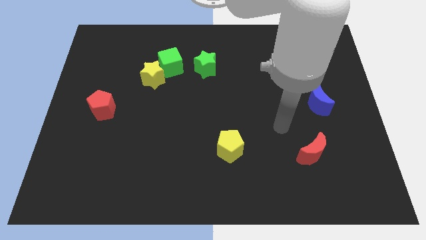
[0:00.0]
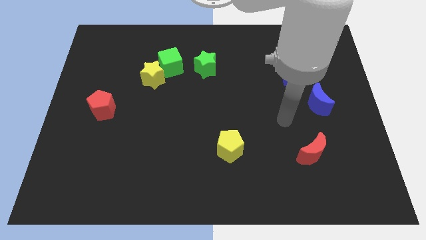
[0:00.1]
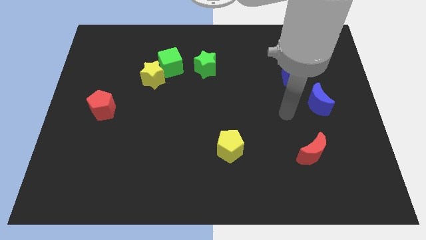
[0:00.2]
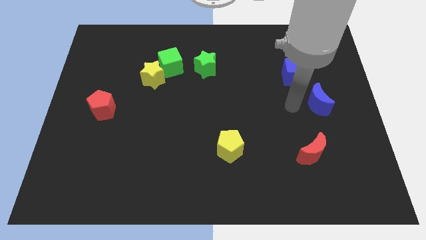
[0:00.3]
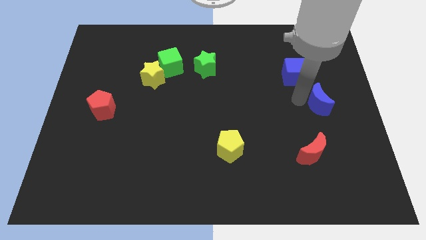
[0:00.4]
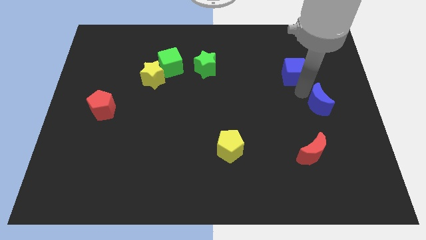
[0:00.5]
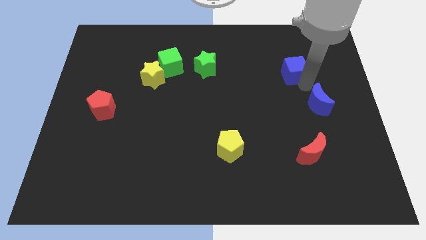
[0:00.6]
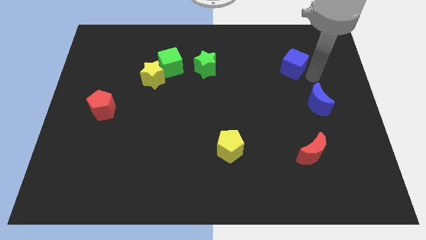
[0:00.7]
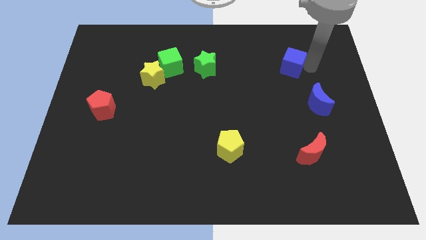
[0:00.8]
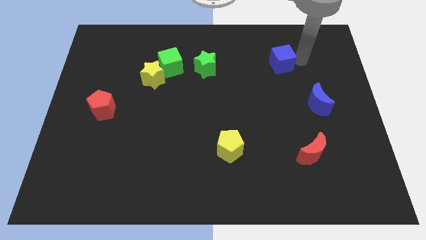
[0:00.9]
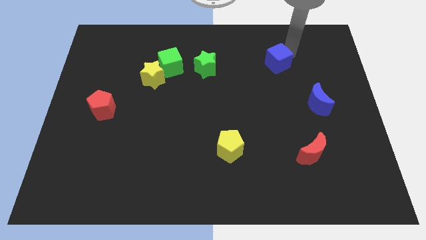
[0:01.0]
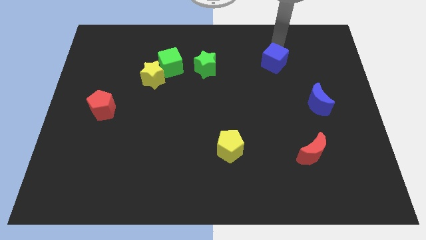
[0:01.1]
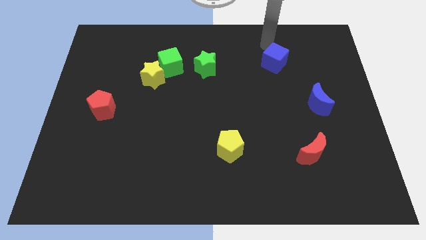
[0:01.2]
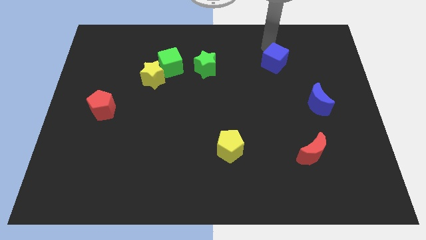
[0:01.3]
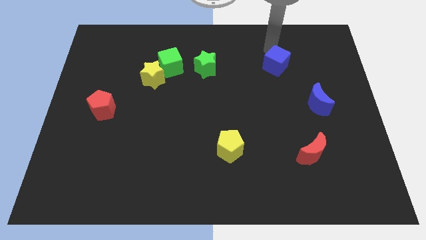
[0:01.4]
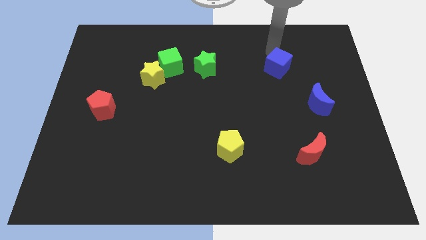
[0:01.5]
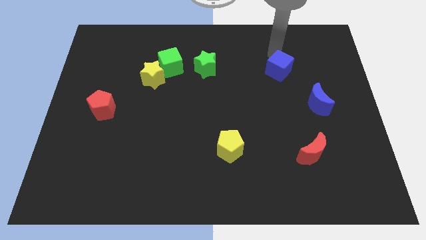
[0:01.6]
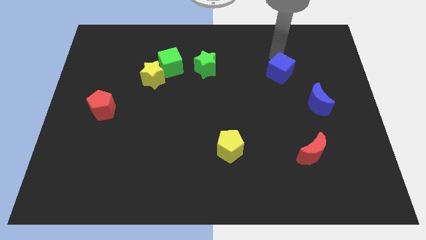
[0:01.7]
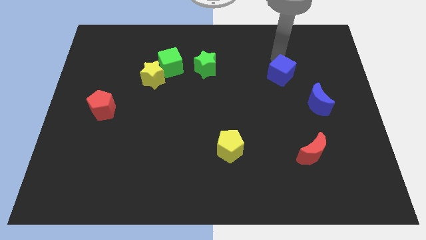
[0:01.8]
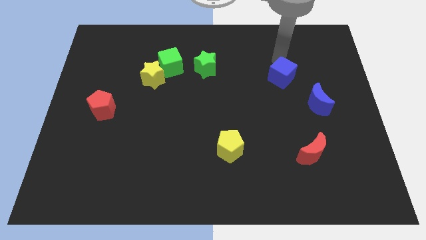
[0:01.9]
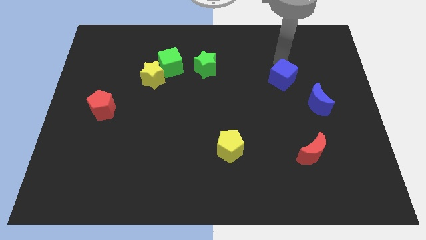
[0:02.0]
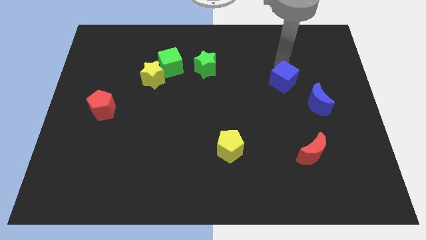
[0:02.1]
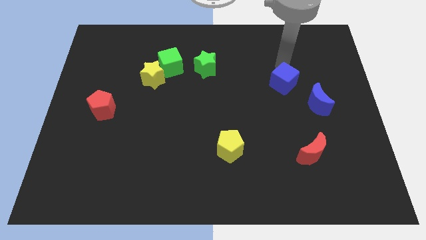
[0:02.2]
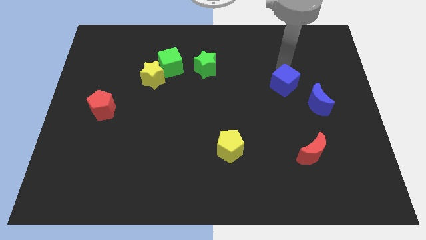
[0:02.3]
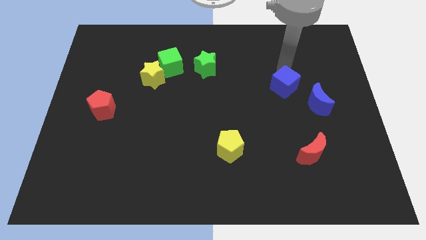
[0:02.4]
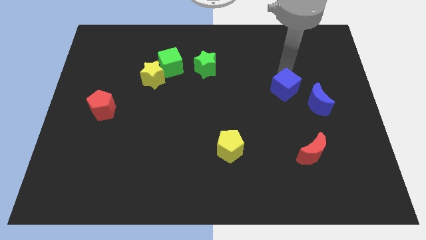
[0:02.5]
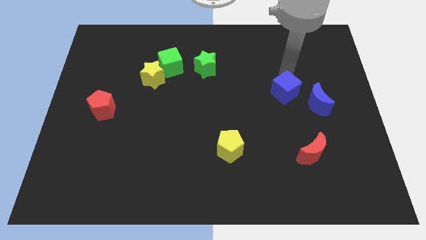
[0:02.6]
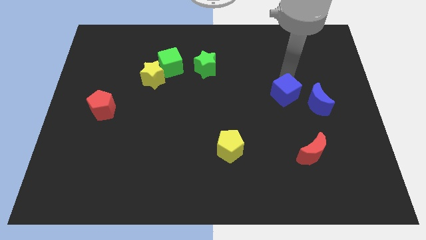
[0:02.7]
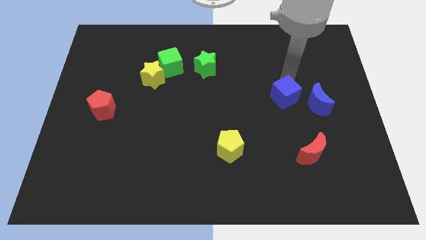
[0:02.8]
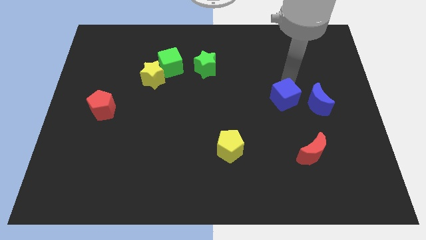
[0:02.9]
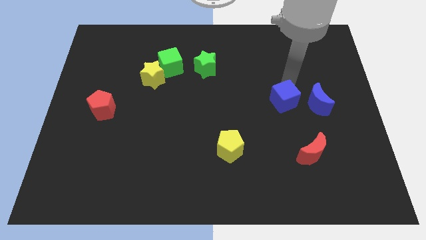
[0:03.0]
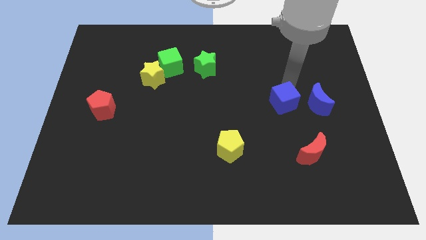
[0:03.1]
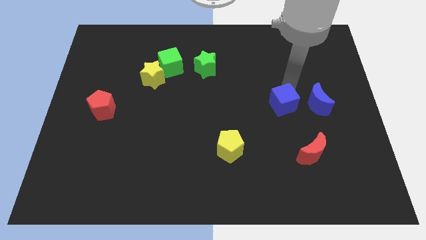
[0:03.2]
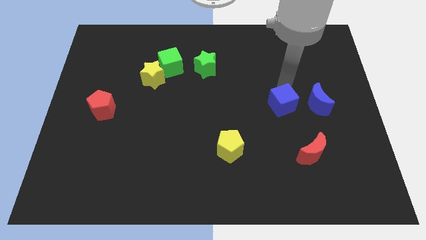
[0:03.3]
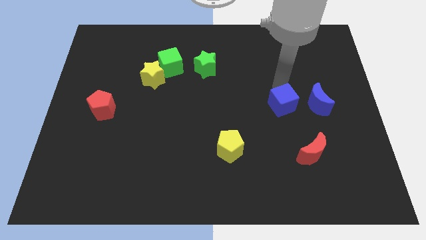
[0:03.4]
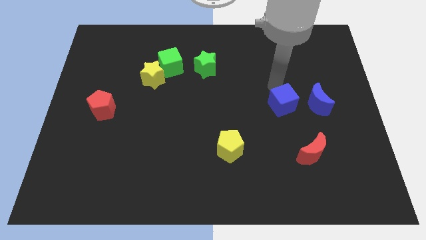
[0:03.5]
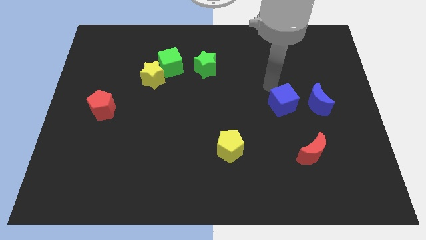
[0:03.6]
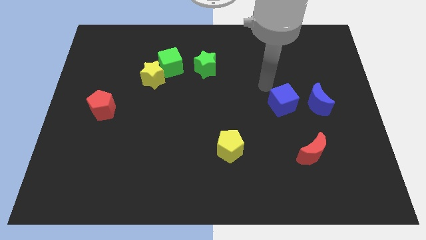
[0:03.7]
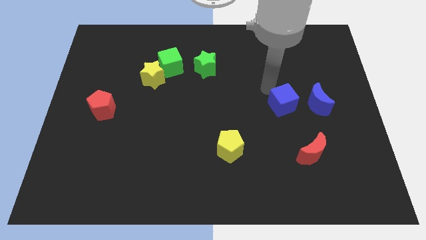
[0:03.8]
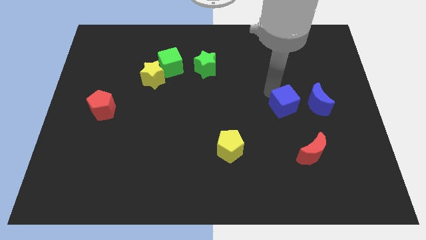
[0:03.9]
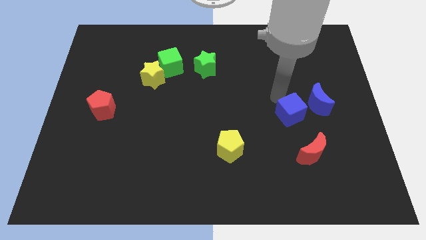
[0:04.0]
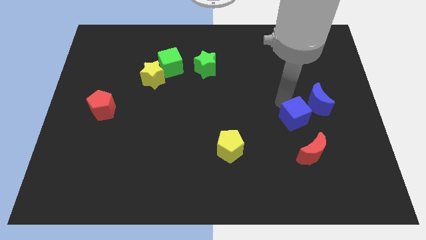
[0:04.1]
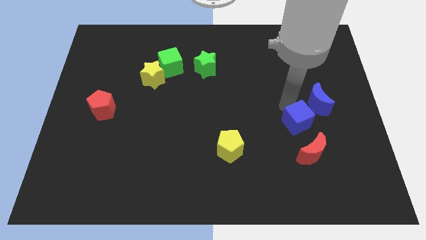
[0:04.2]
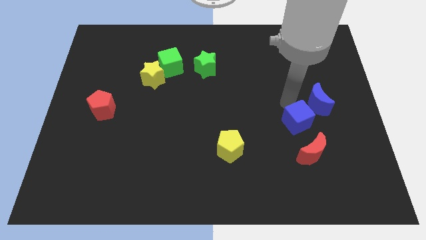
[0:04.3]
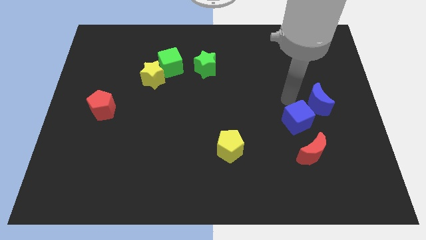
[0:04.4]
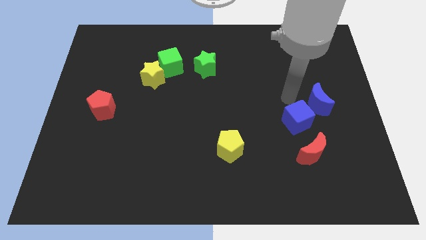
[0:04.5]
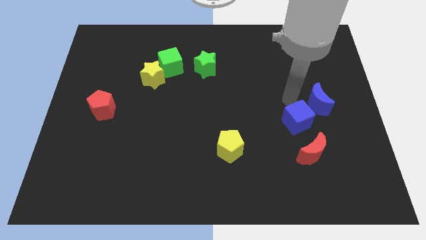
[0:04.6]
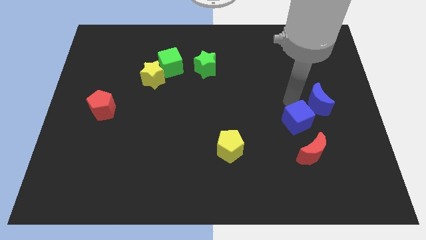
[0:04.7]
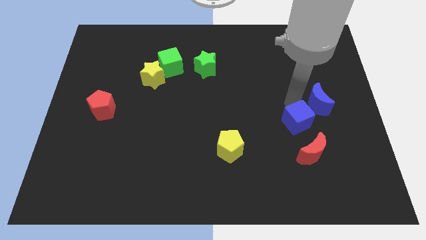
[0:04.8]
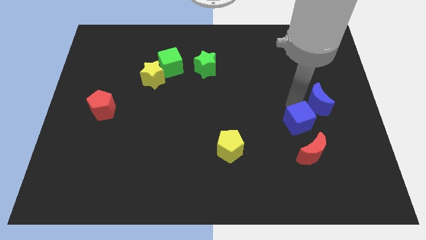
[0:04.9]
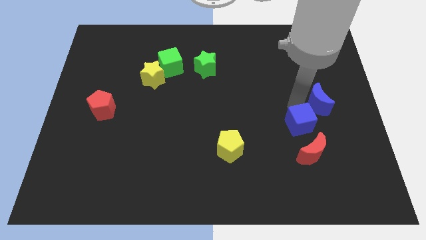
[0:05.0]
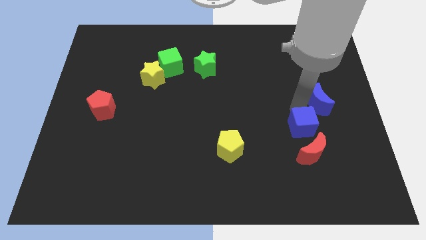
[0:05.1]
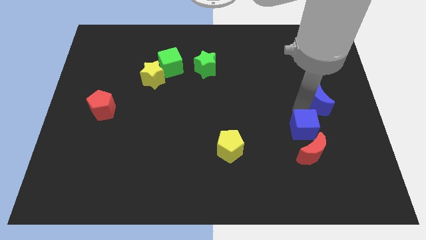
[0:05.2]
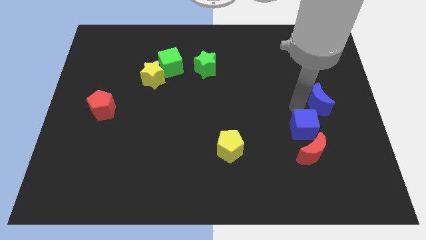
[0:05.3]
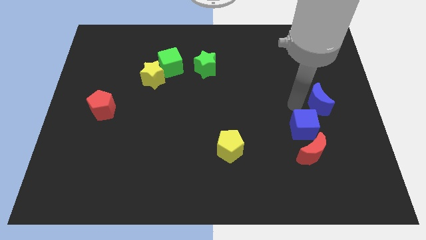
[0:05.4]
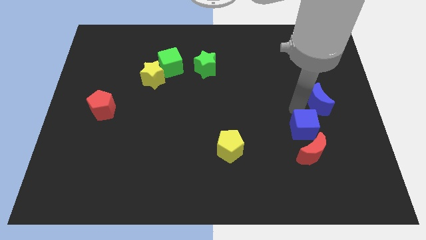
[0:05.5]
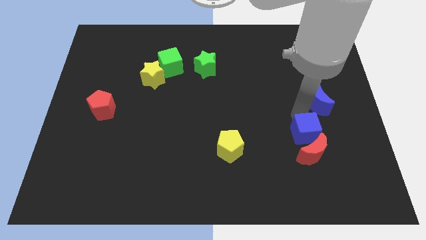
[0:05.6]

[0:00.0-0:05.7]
push the blue cube towards the red moon

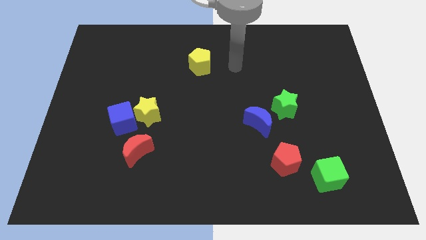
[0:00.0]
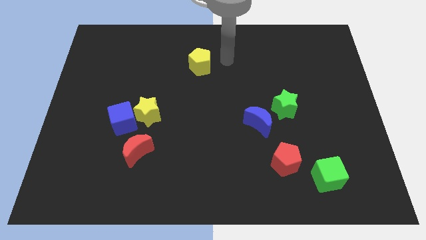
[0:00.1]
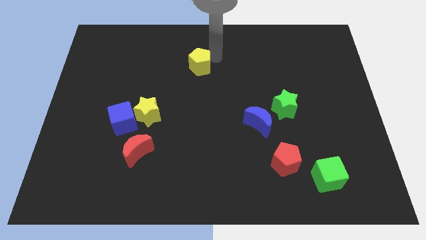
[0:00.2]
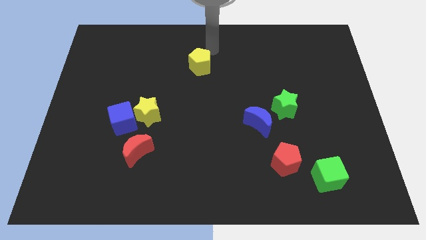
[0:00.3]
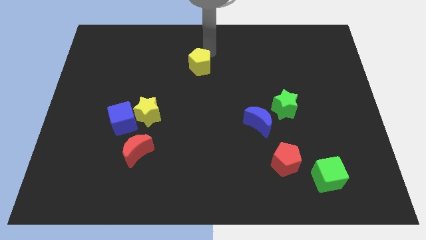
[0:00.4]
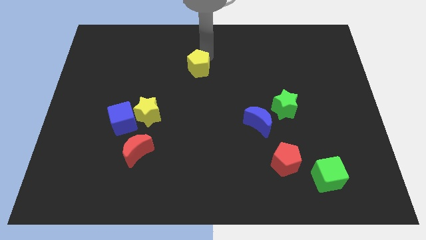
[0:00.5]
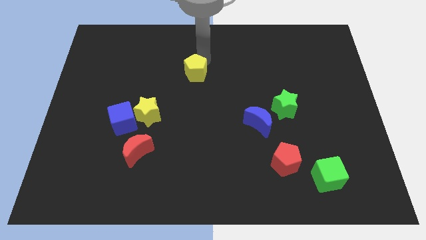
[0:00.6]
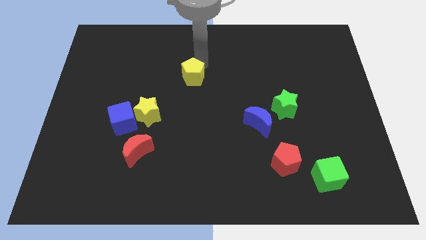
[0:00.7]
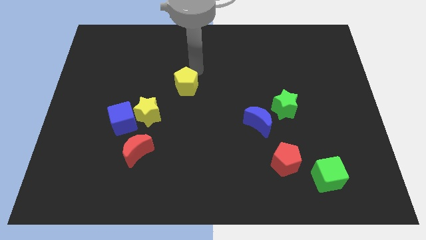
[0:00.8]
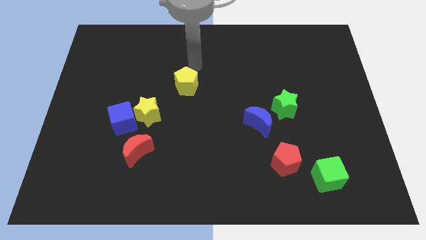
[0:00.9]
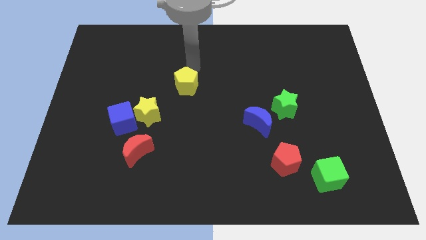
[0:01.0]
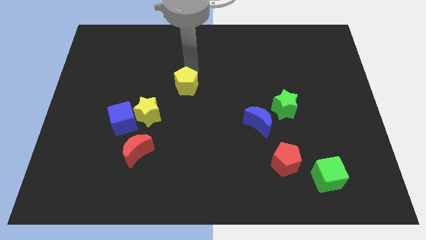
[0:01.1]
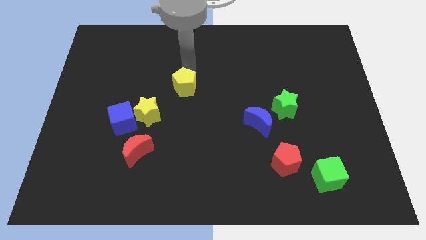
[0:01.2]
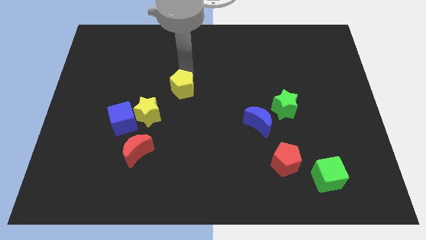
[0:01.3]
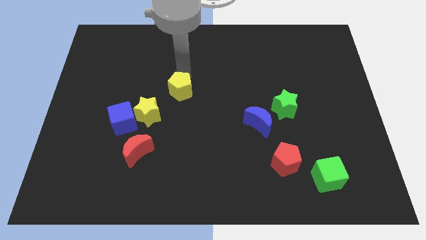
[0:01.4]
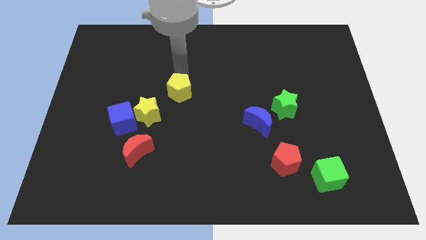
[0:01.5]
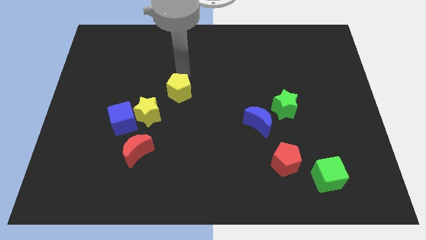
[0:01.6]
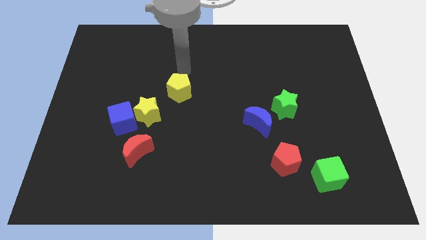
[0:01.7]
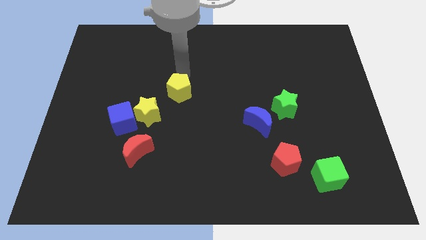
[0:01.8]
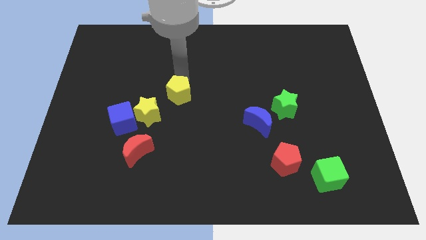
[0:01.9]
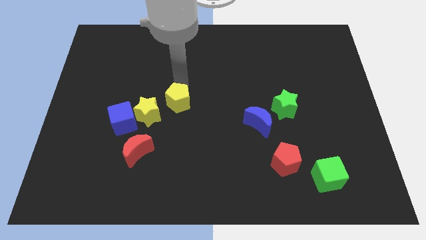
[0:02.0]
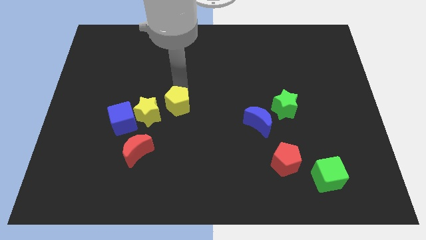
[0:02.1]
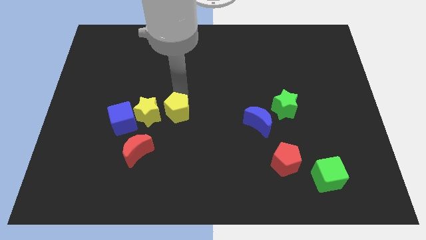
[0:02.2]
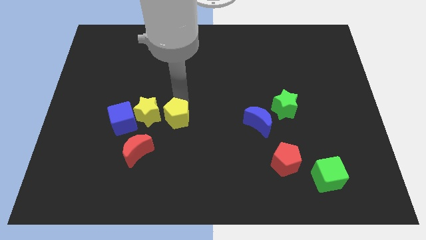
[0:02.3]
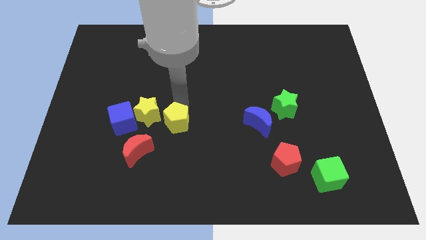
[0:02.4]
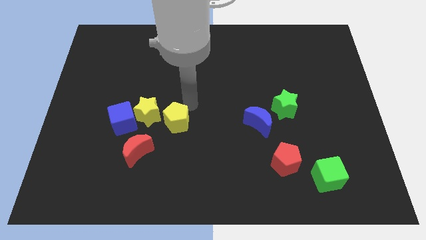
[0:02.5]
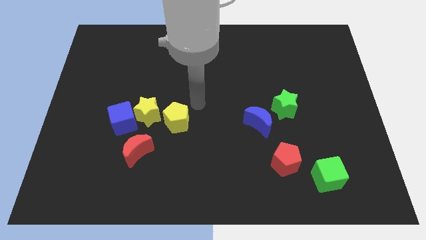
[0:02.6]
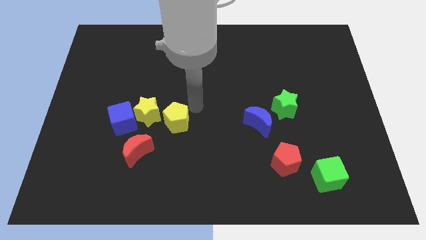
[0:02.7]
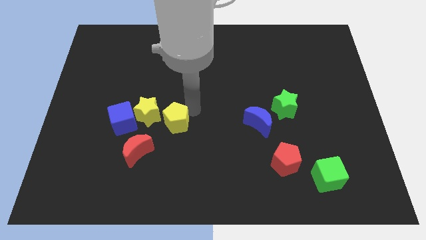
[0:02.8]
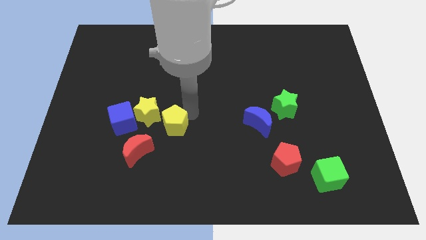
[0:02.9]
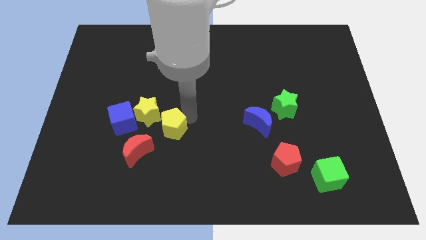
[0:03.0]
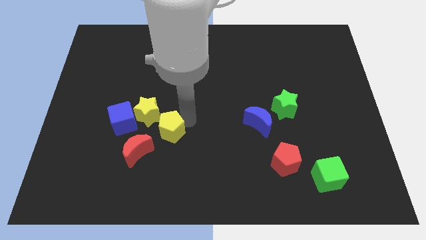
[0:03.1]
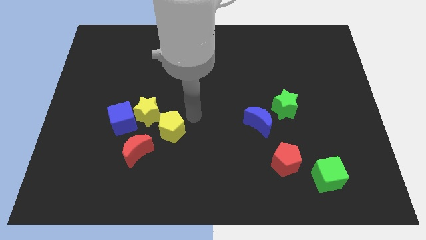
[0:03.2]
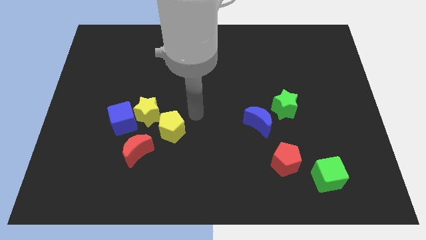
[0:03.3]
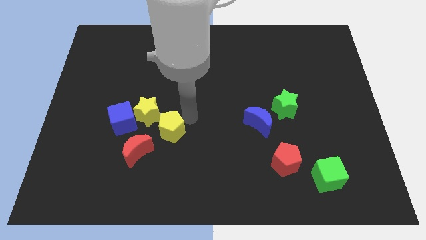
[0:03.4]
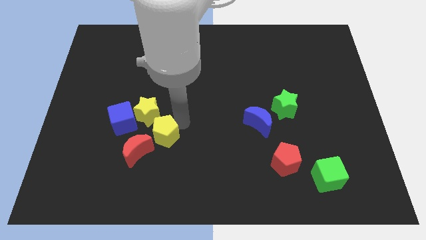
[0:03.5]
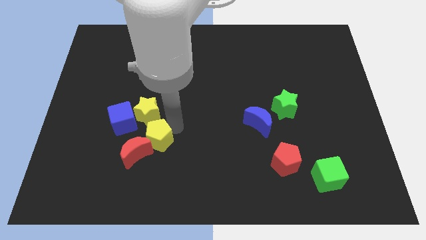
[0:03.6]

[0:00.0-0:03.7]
push the yellow pentagon close to the red moon
